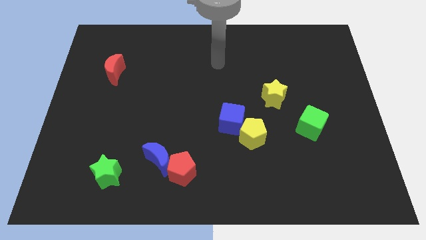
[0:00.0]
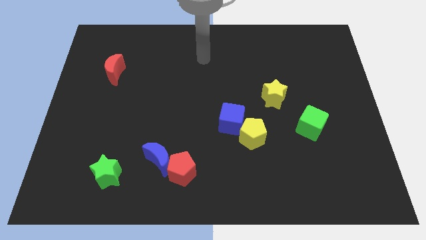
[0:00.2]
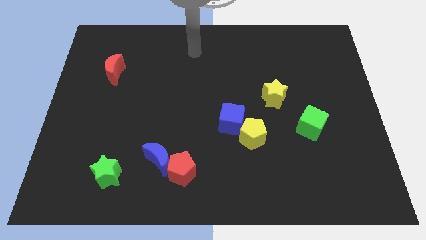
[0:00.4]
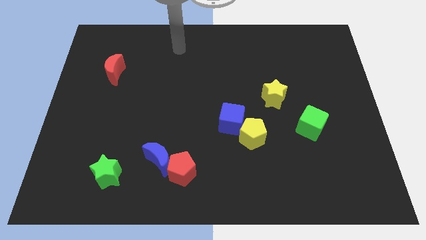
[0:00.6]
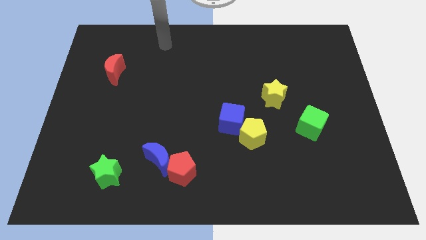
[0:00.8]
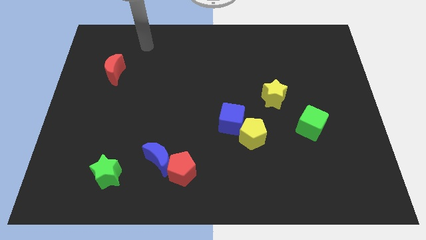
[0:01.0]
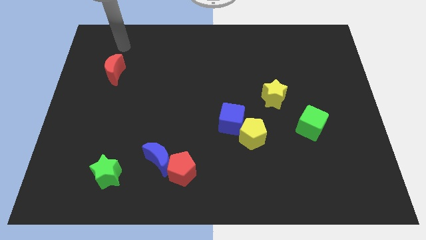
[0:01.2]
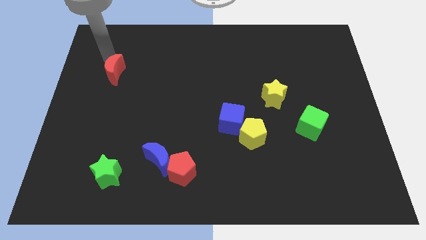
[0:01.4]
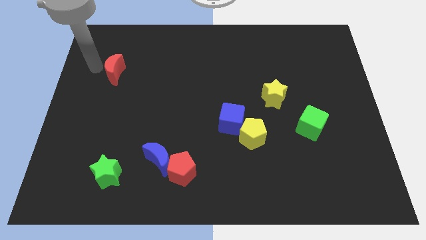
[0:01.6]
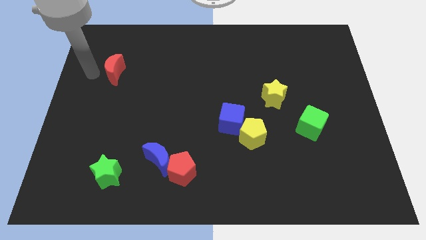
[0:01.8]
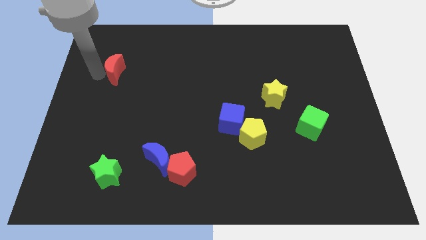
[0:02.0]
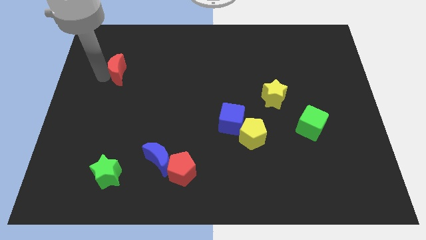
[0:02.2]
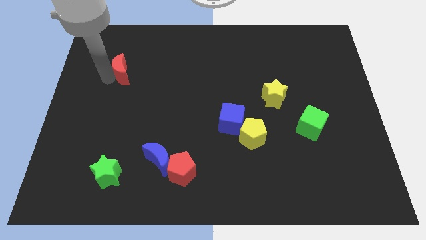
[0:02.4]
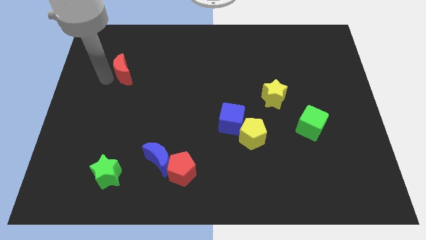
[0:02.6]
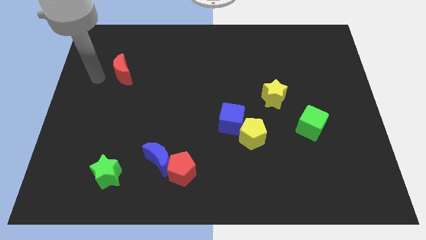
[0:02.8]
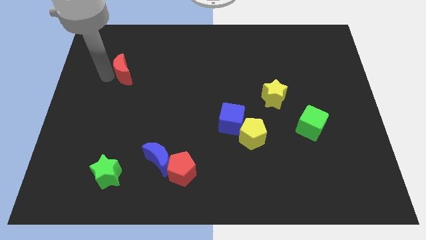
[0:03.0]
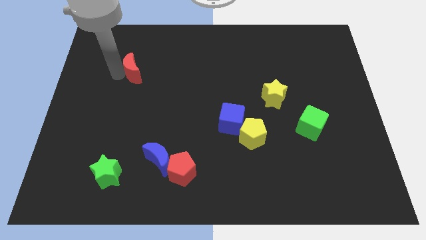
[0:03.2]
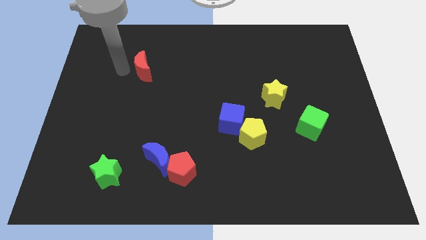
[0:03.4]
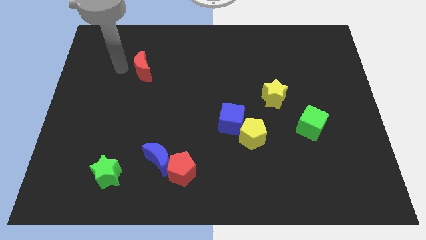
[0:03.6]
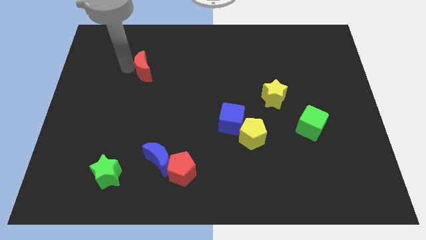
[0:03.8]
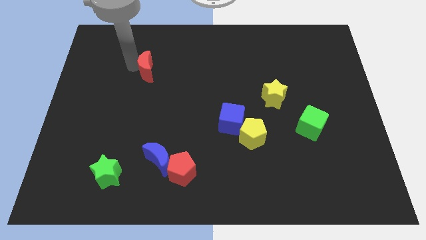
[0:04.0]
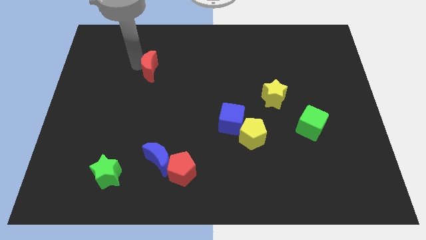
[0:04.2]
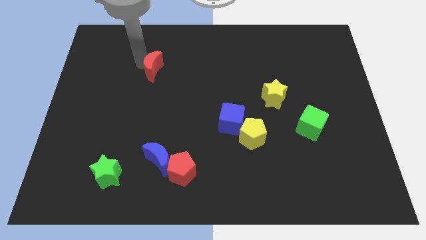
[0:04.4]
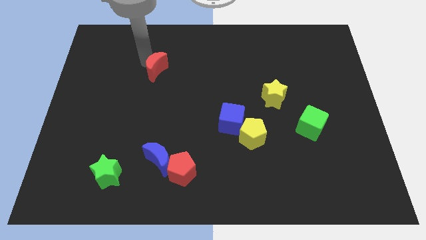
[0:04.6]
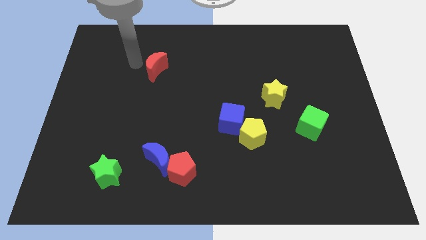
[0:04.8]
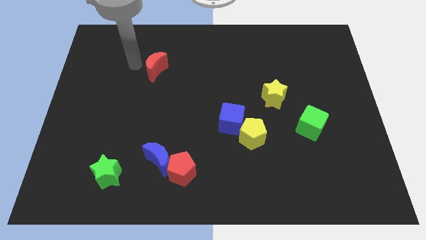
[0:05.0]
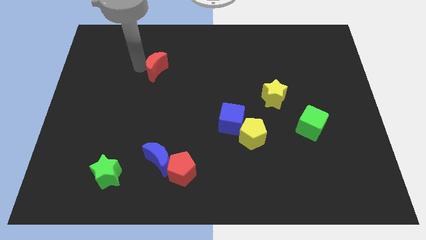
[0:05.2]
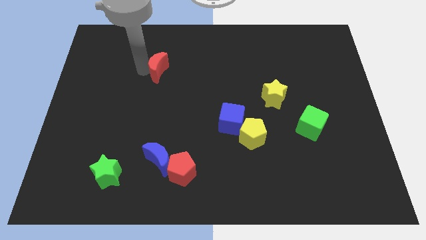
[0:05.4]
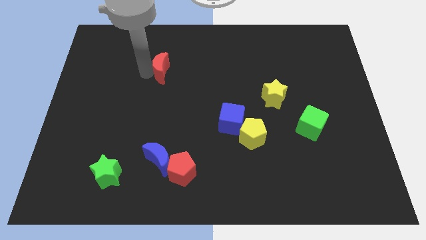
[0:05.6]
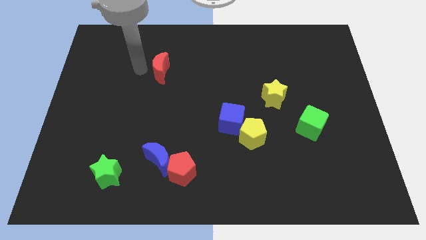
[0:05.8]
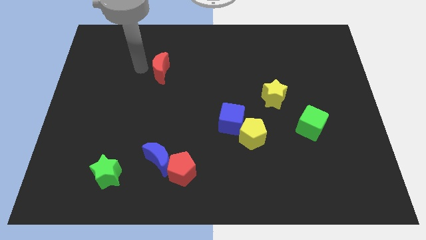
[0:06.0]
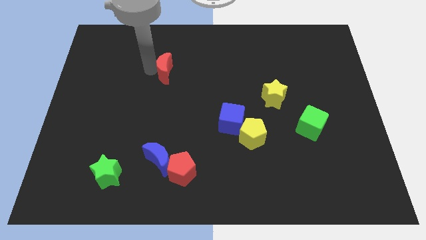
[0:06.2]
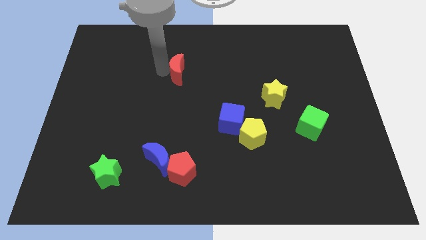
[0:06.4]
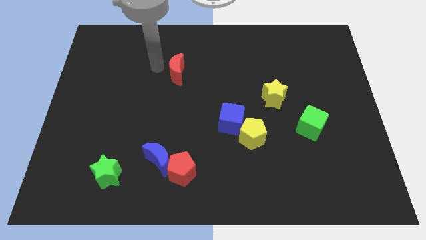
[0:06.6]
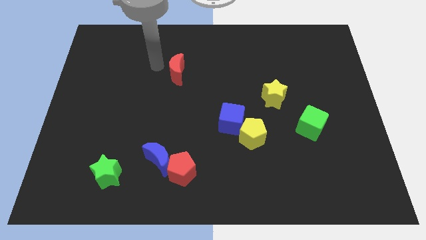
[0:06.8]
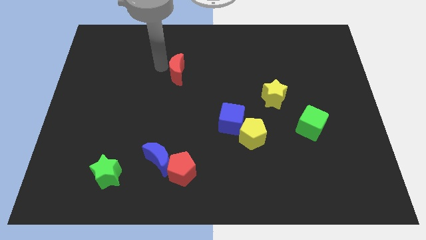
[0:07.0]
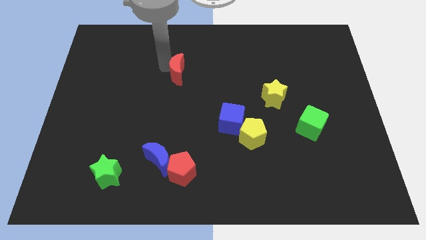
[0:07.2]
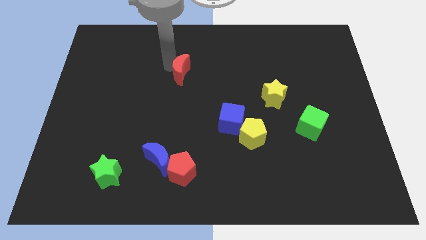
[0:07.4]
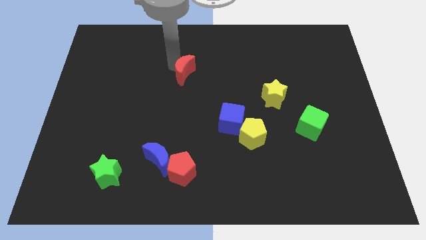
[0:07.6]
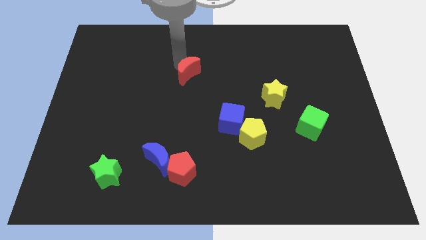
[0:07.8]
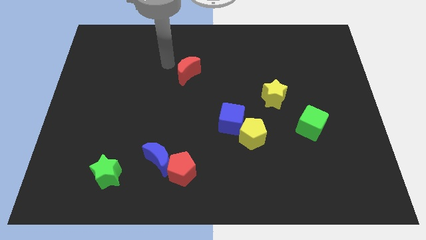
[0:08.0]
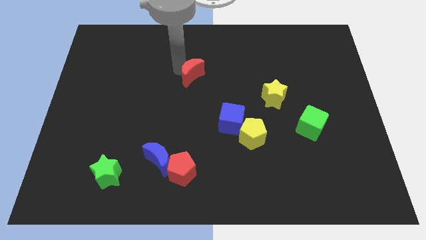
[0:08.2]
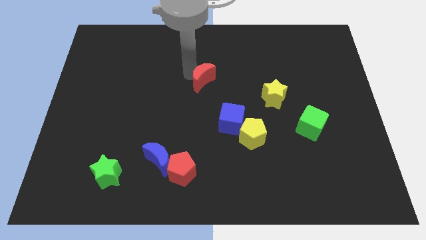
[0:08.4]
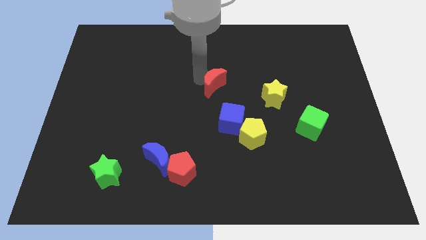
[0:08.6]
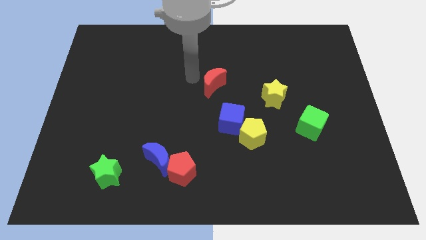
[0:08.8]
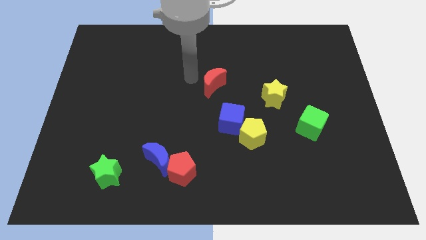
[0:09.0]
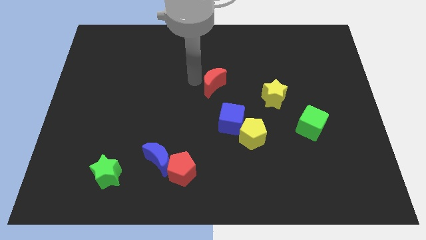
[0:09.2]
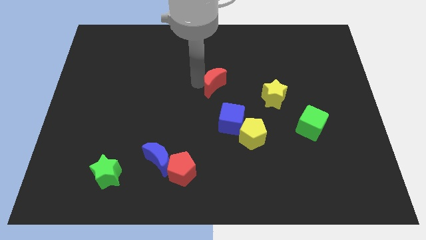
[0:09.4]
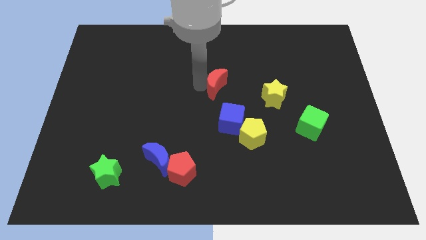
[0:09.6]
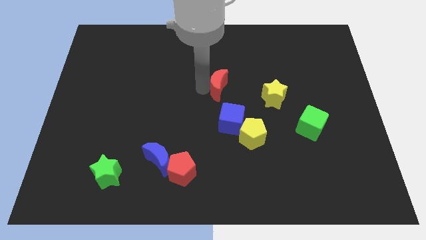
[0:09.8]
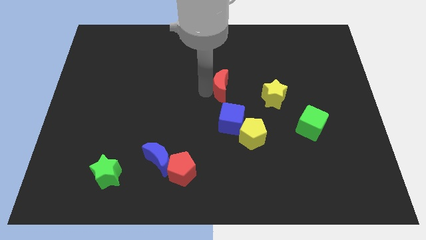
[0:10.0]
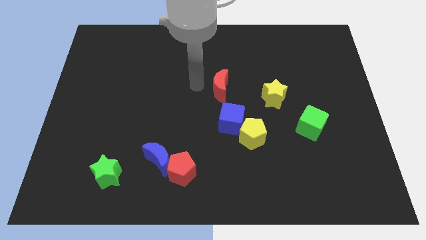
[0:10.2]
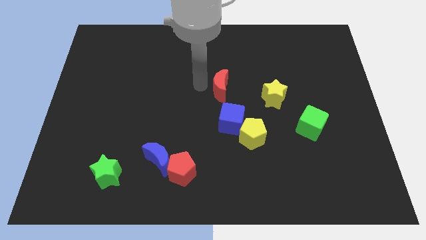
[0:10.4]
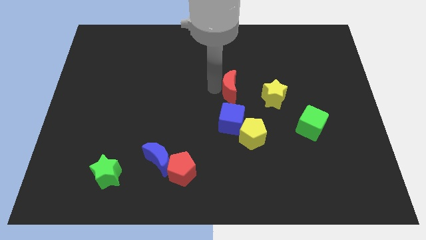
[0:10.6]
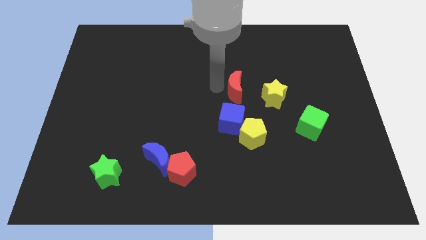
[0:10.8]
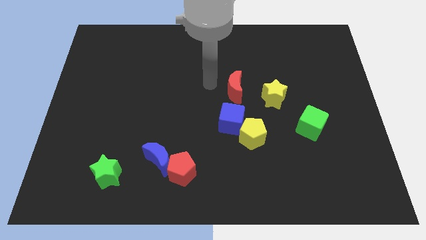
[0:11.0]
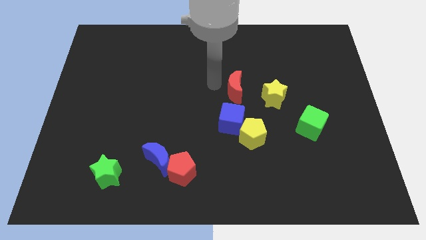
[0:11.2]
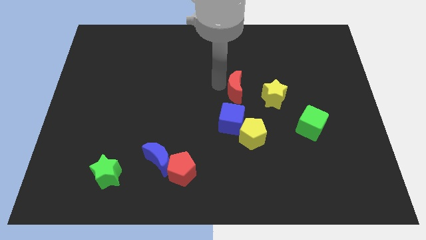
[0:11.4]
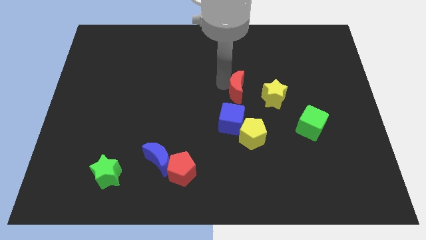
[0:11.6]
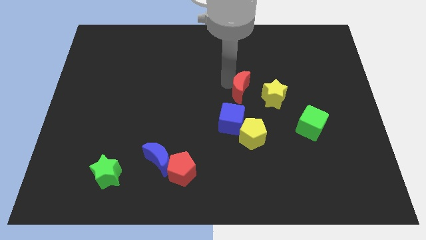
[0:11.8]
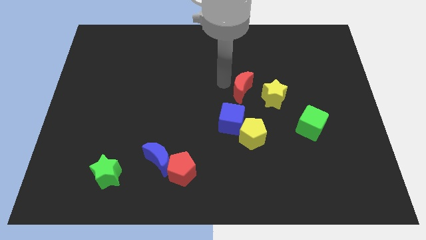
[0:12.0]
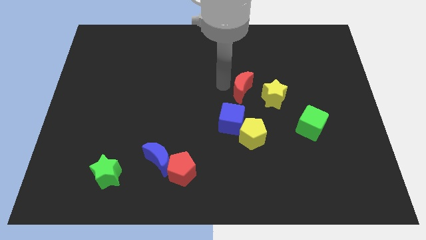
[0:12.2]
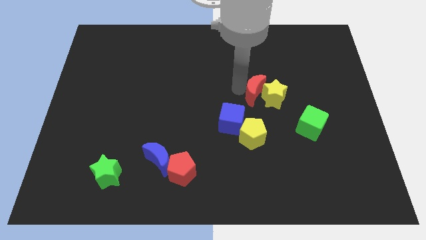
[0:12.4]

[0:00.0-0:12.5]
slide the red moon close to the yellow star
